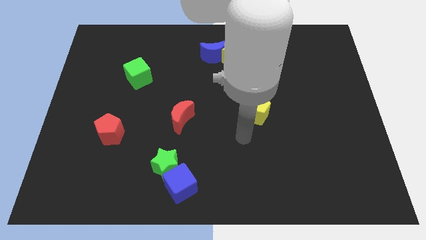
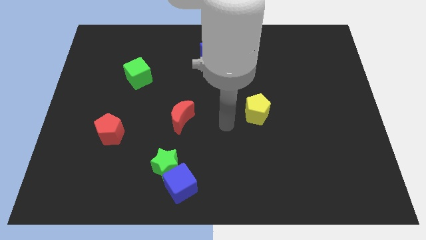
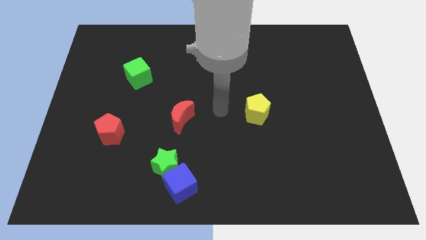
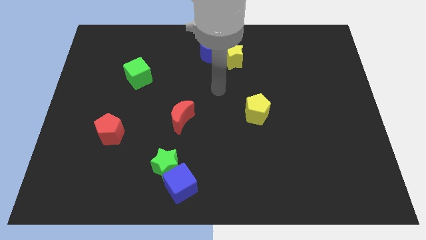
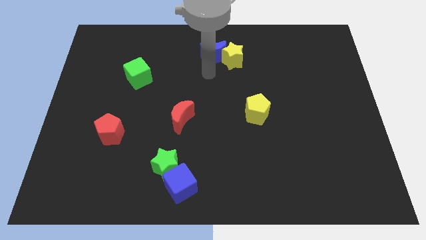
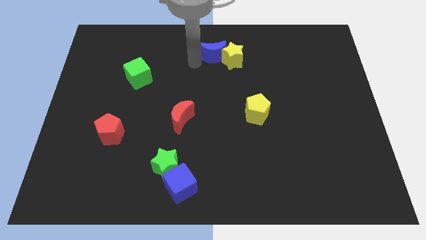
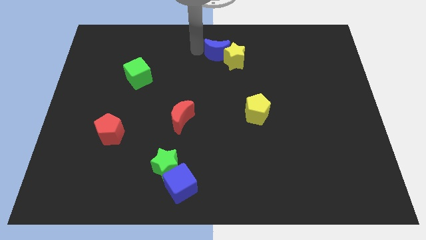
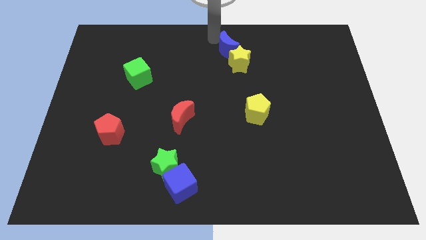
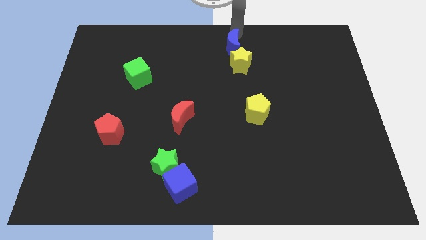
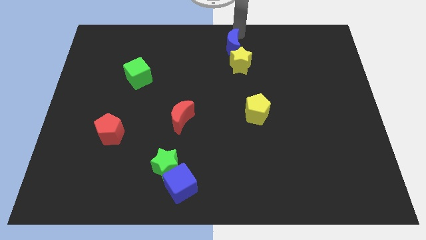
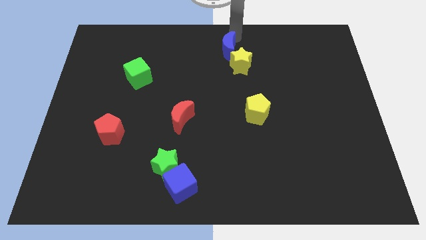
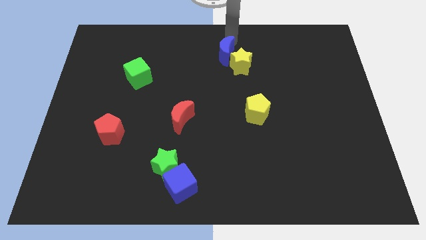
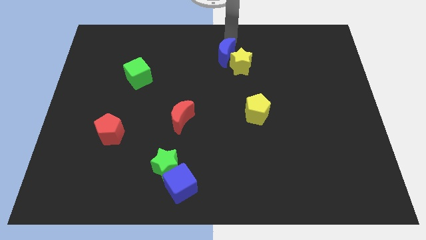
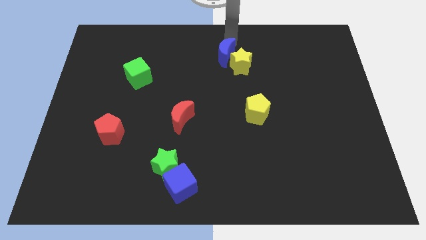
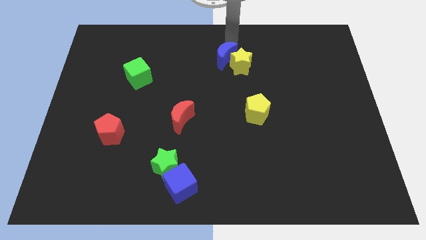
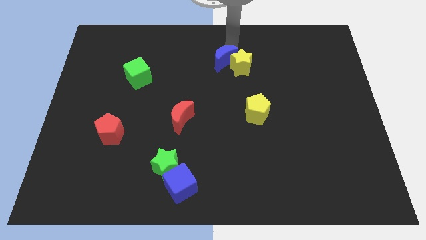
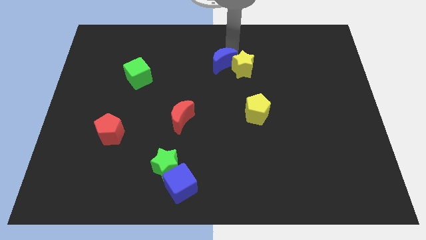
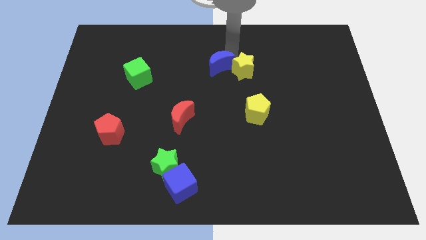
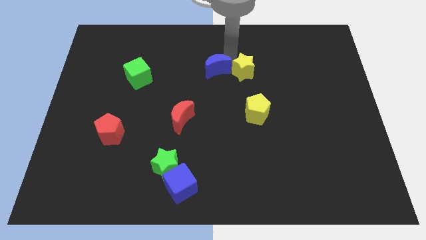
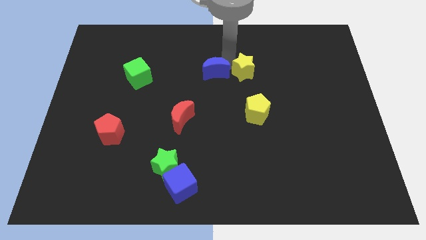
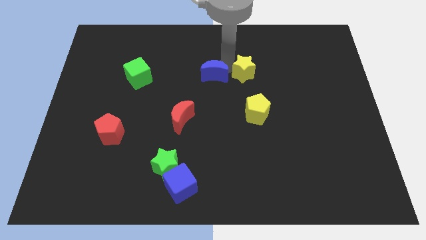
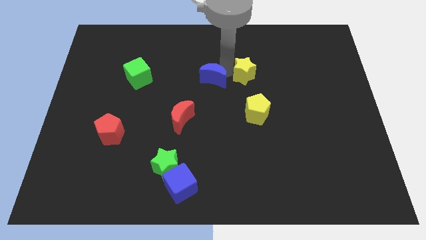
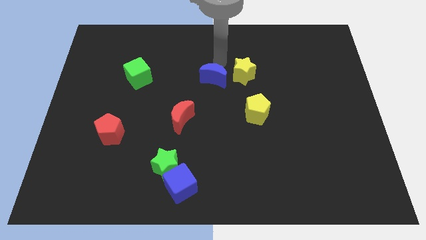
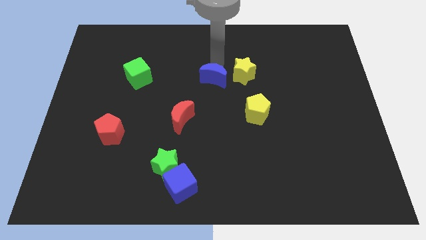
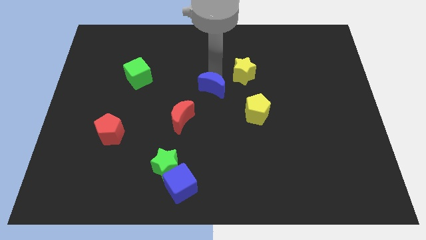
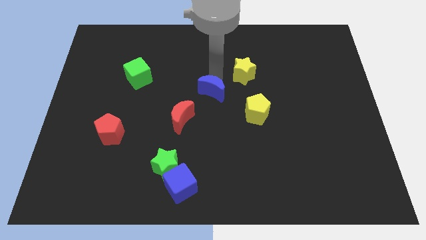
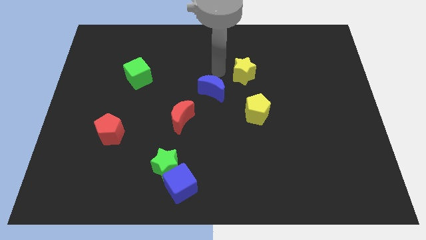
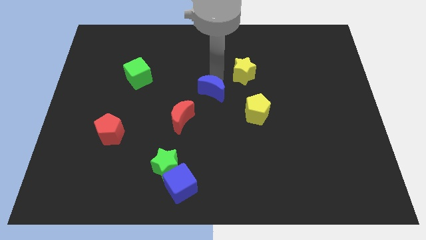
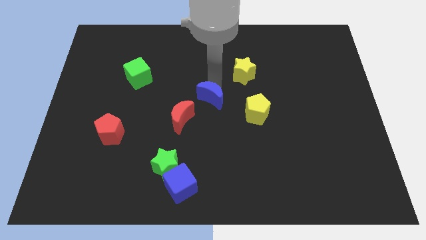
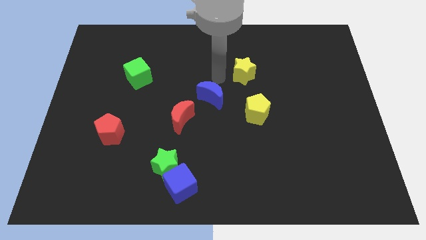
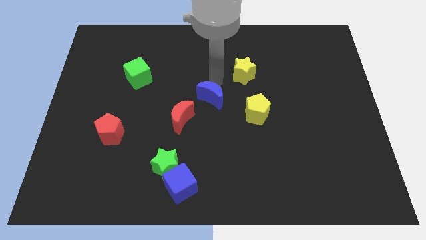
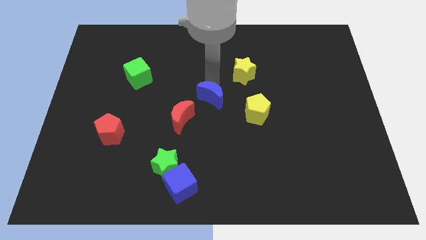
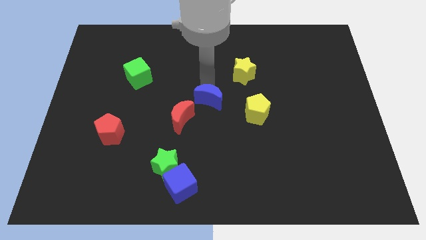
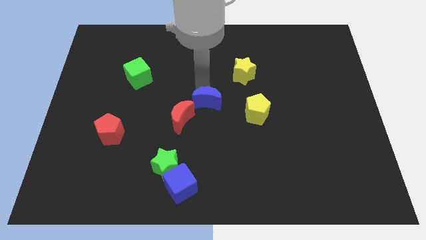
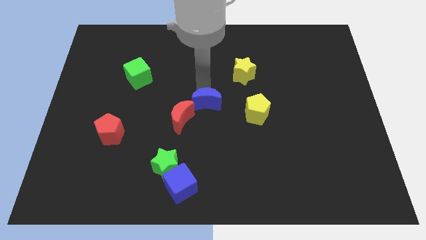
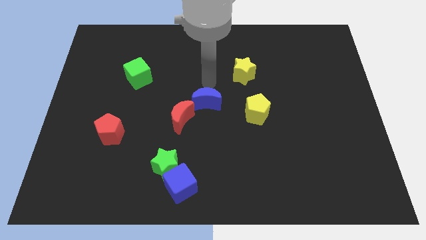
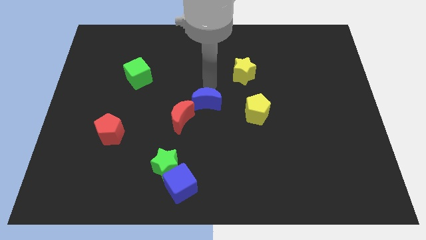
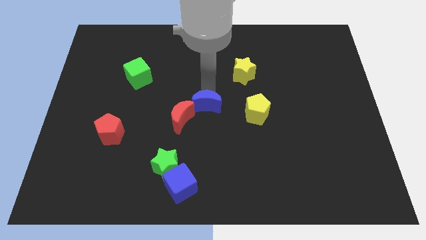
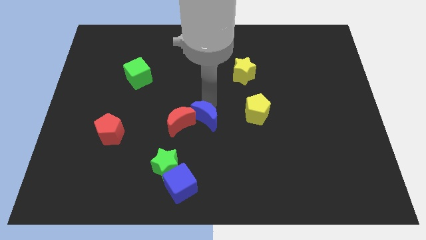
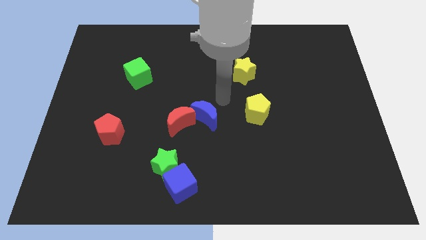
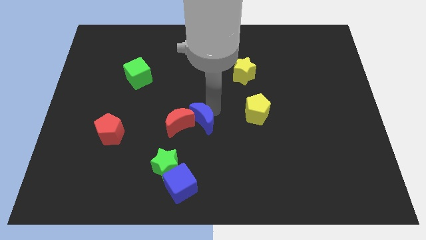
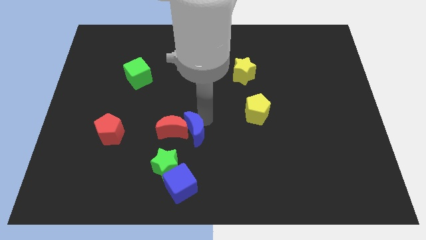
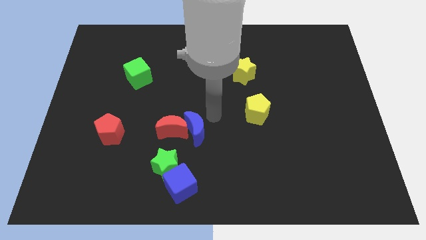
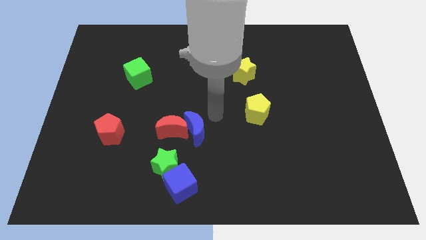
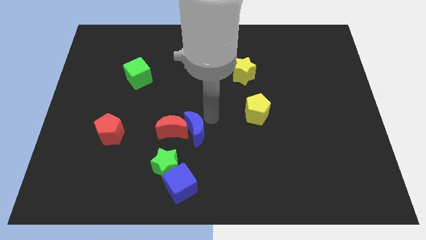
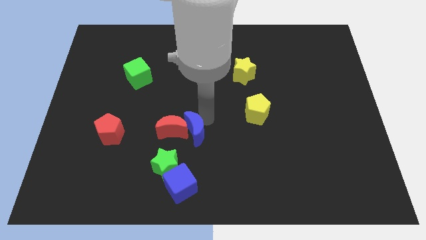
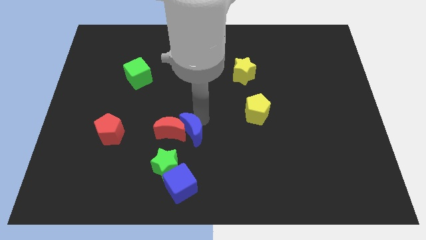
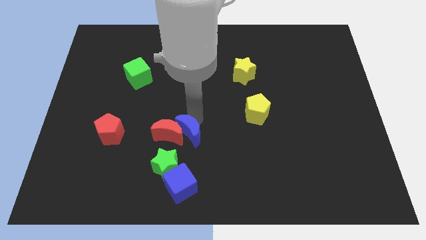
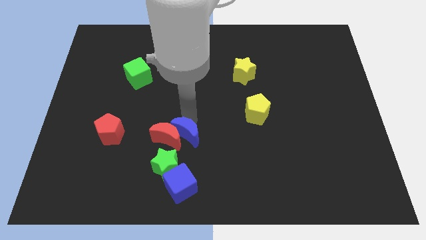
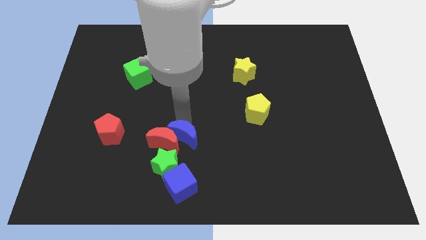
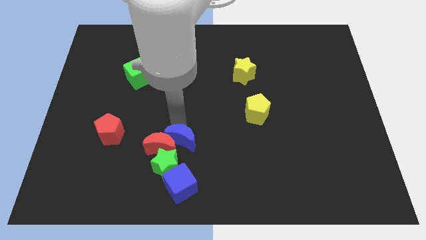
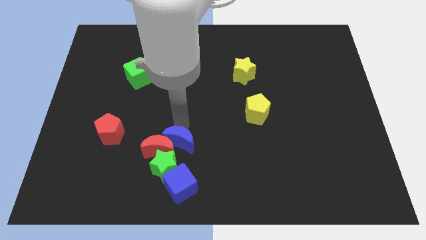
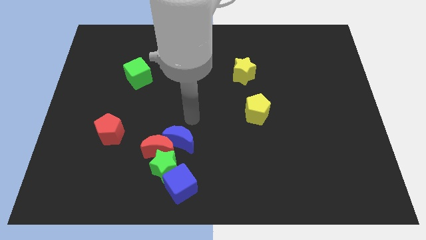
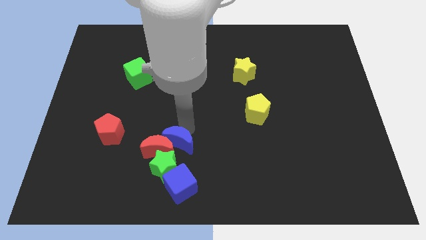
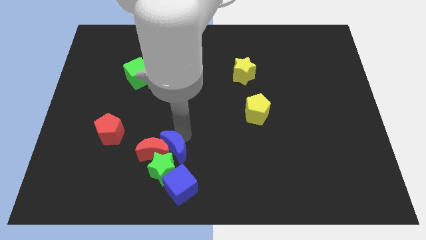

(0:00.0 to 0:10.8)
slide the blue moon towards the green star

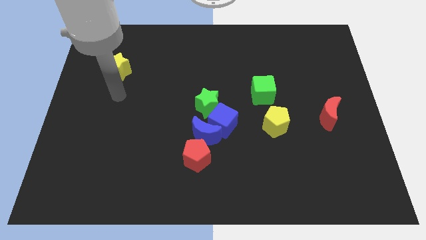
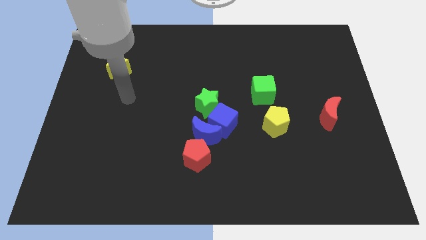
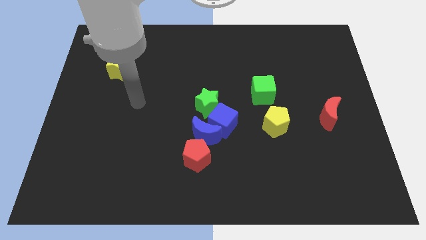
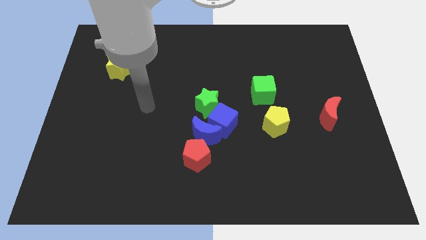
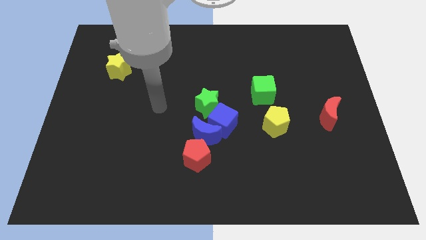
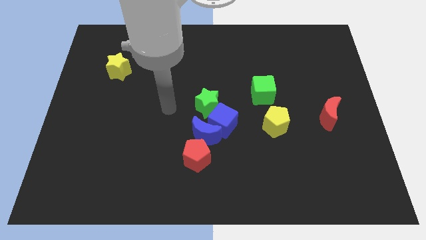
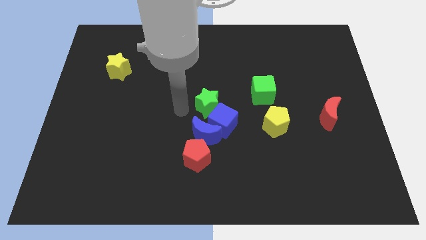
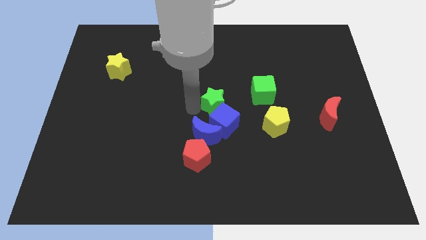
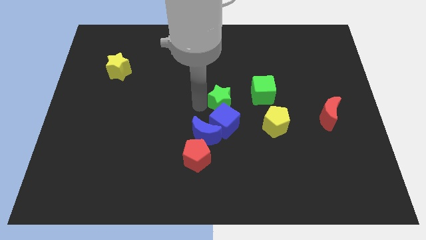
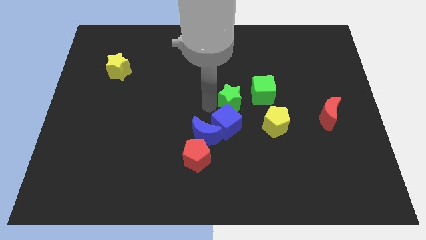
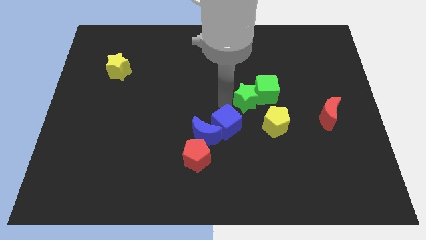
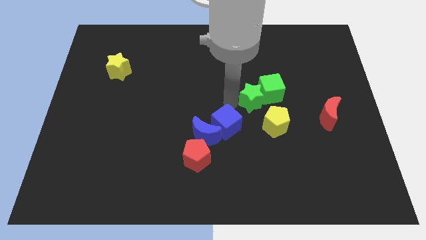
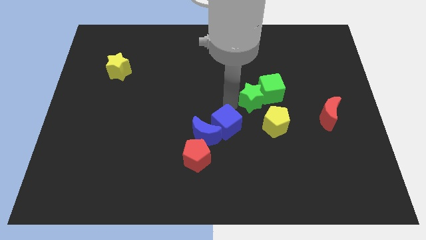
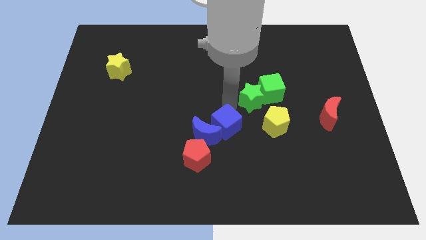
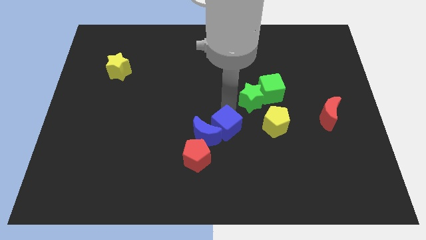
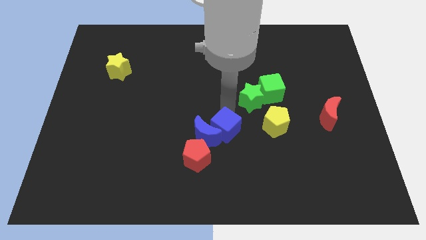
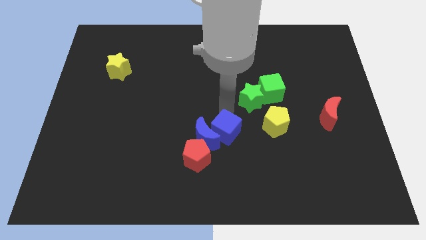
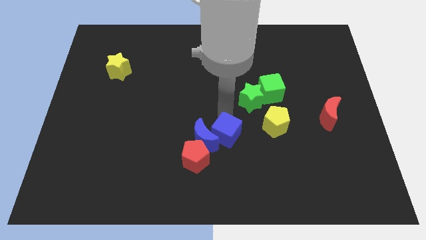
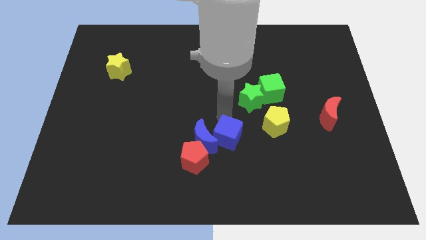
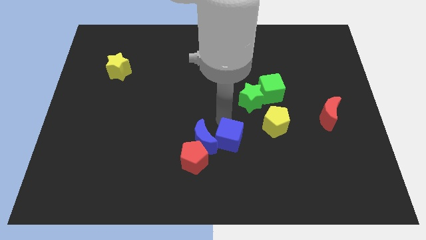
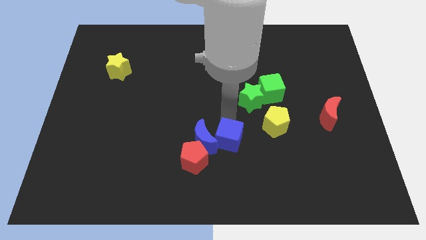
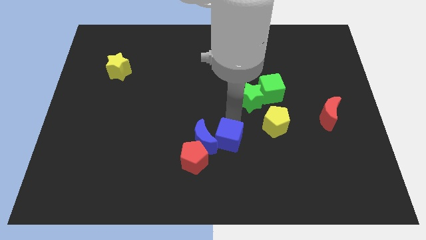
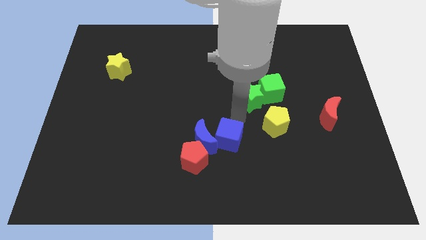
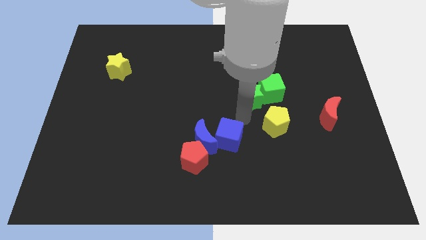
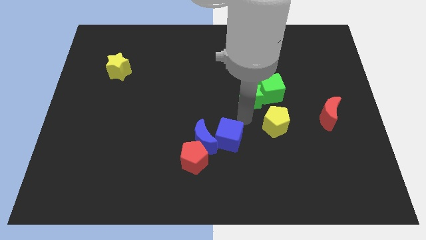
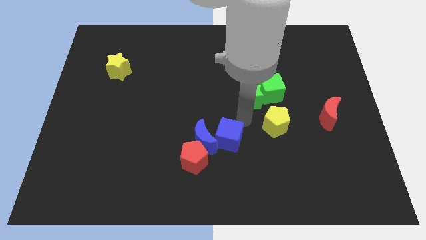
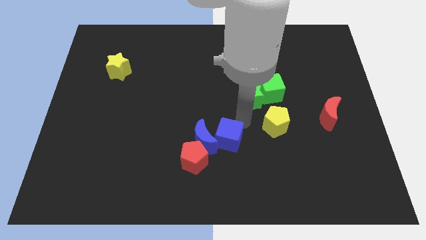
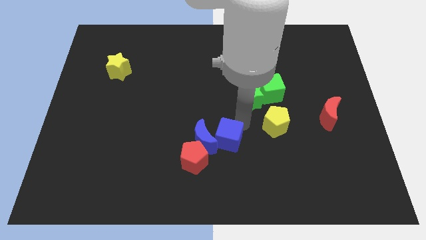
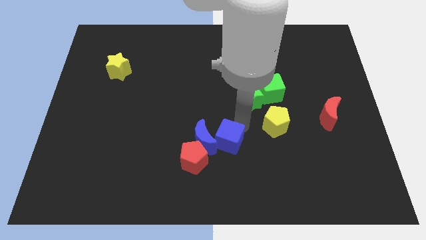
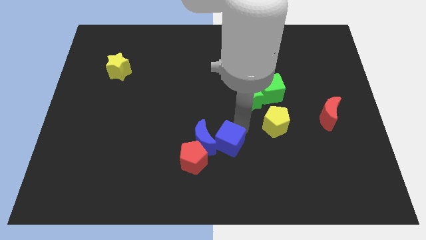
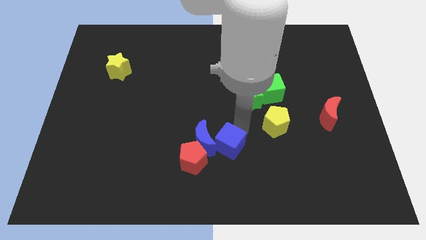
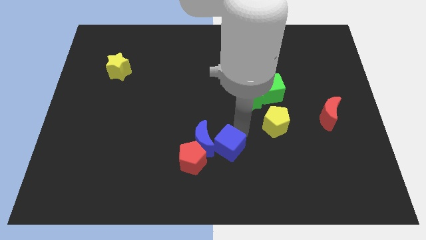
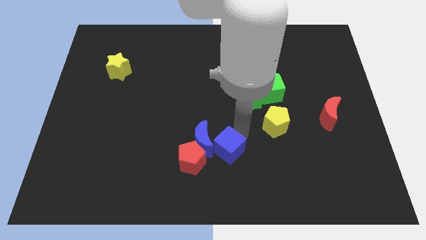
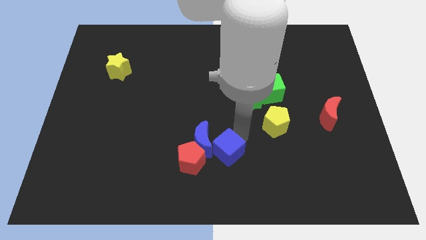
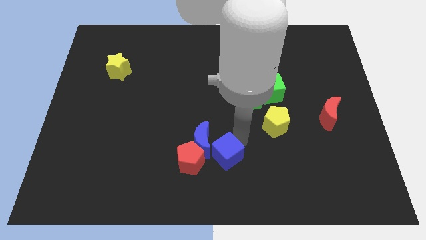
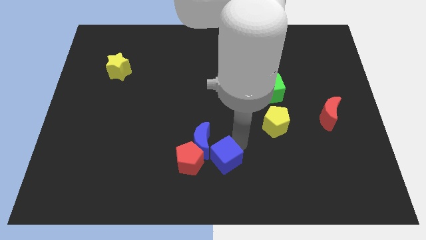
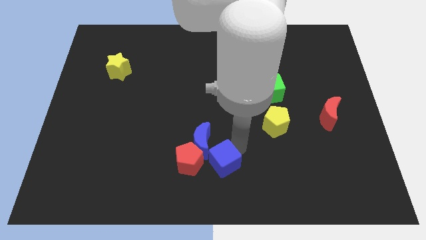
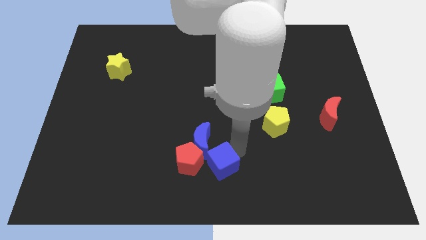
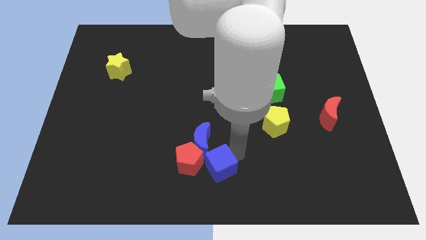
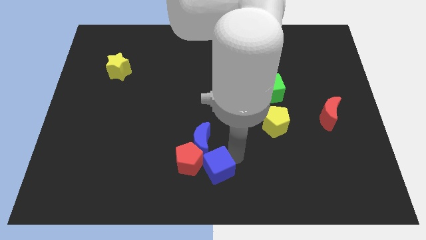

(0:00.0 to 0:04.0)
slide the blue cube to the red pentagon
